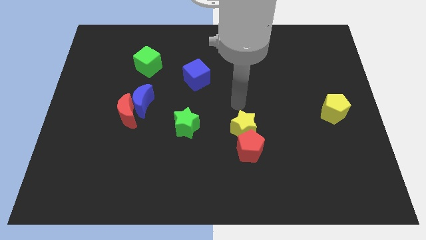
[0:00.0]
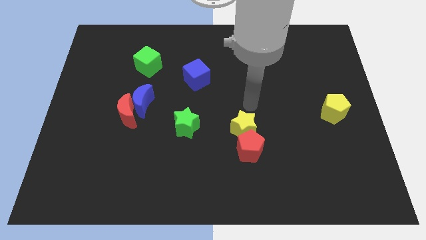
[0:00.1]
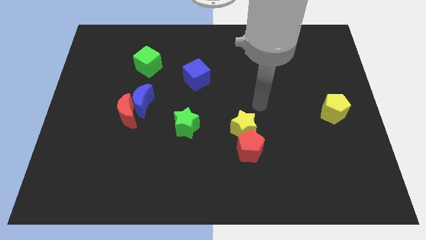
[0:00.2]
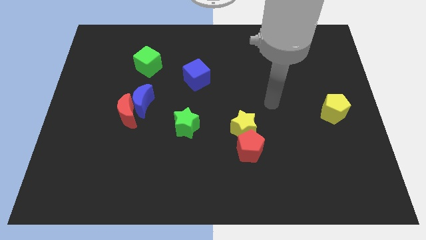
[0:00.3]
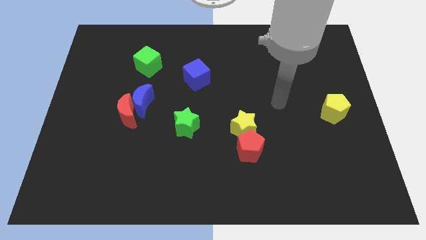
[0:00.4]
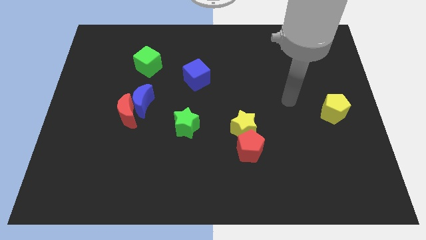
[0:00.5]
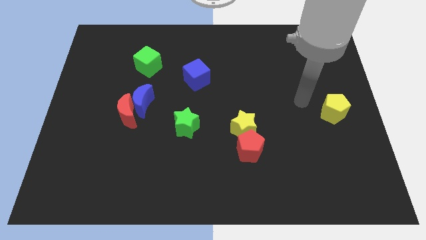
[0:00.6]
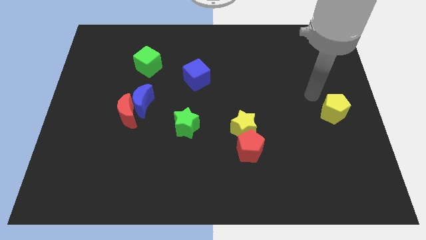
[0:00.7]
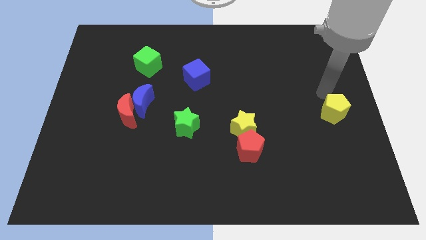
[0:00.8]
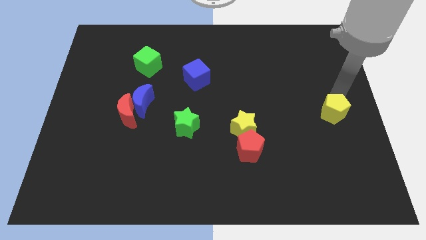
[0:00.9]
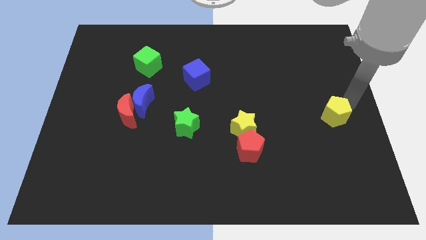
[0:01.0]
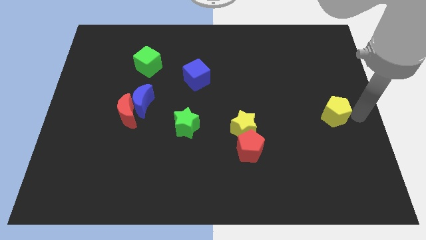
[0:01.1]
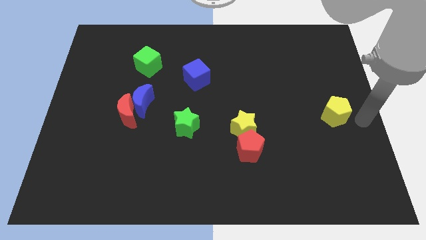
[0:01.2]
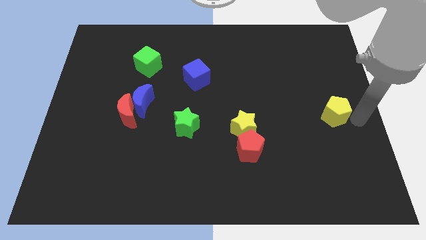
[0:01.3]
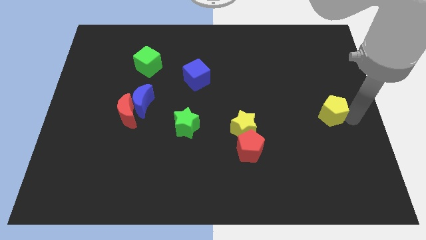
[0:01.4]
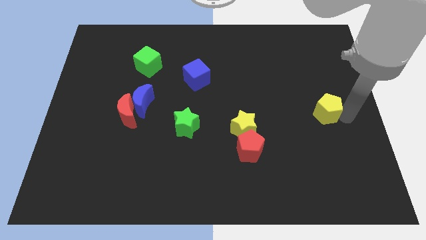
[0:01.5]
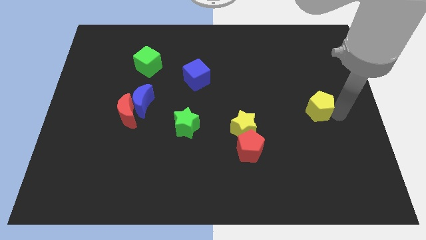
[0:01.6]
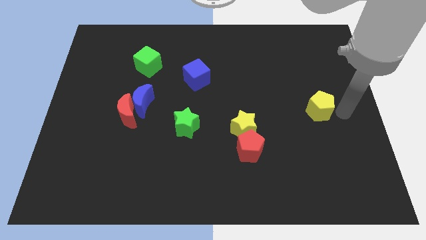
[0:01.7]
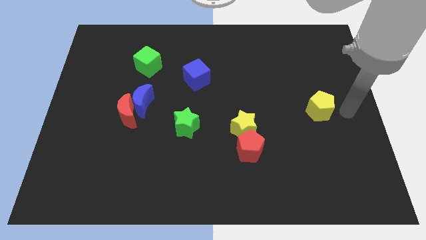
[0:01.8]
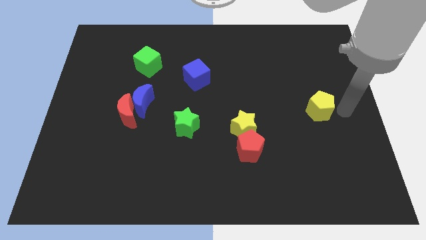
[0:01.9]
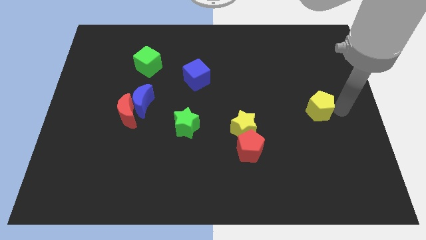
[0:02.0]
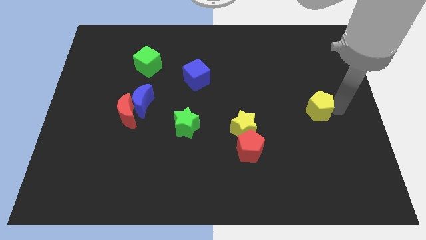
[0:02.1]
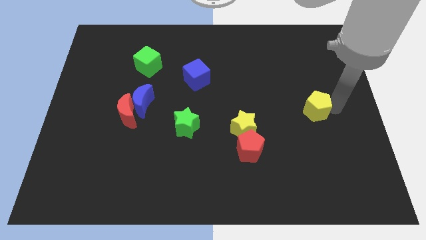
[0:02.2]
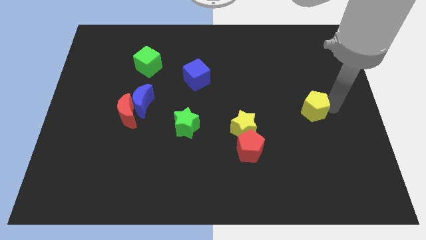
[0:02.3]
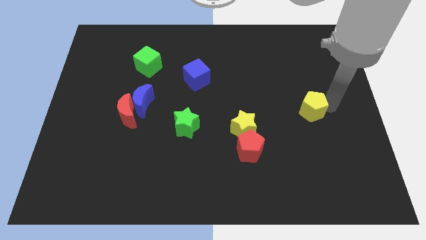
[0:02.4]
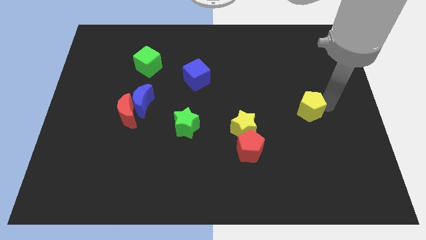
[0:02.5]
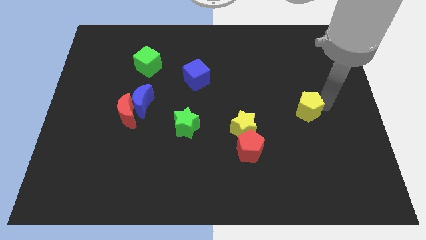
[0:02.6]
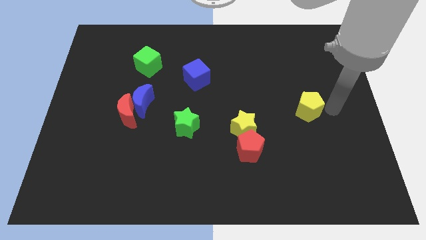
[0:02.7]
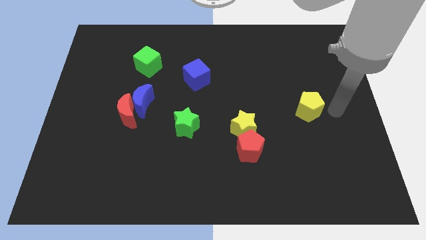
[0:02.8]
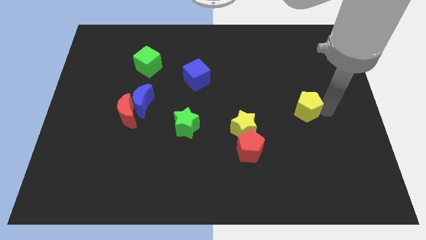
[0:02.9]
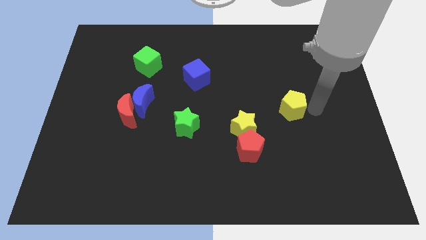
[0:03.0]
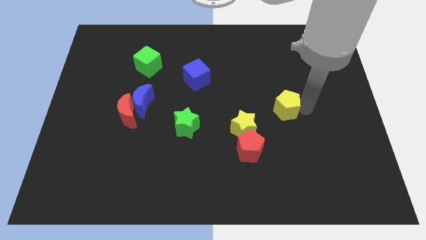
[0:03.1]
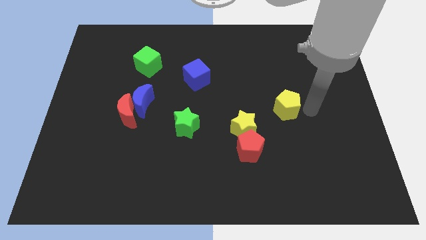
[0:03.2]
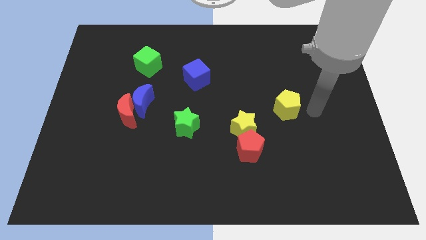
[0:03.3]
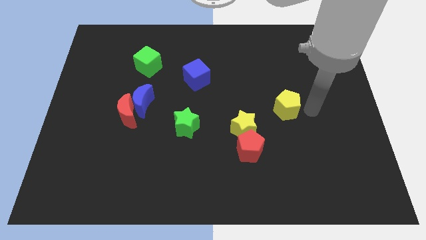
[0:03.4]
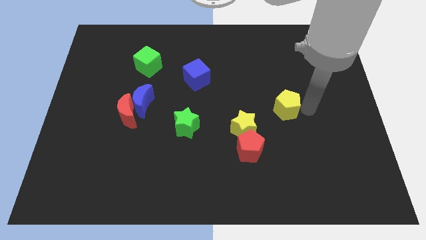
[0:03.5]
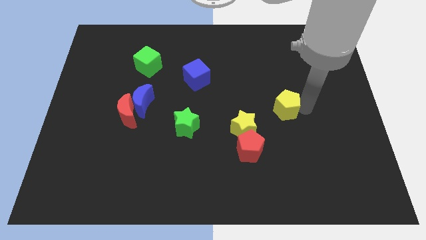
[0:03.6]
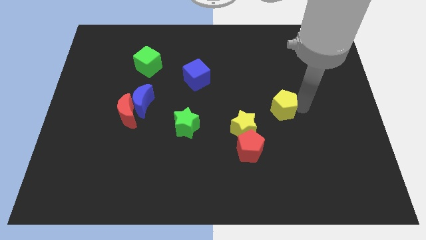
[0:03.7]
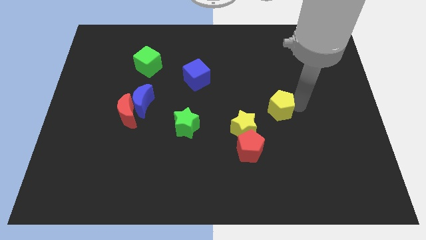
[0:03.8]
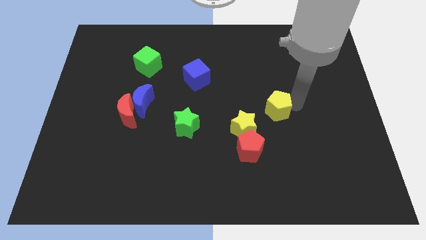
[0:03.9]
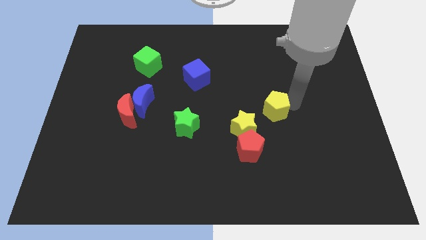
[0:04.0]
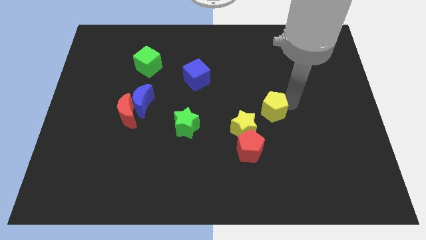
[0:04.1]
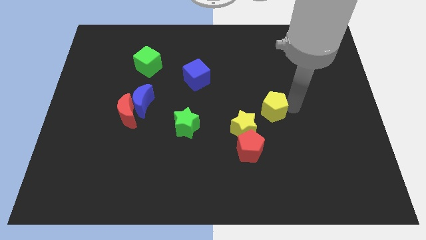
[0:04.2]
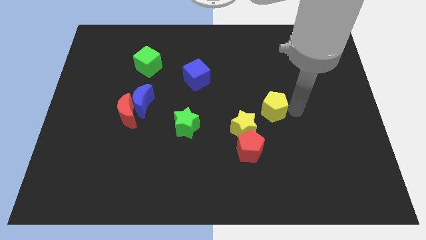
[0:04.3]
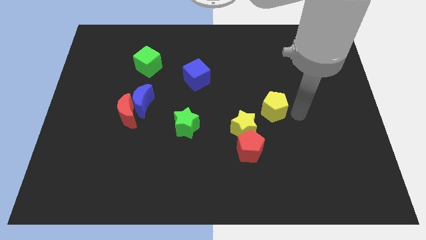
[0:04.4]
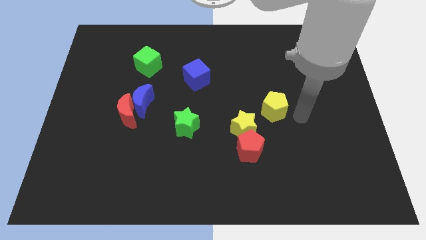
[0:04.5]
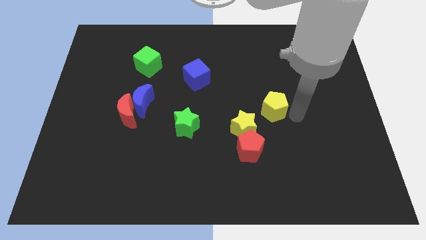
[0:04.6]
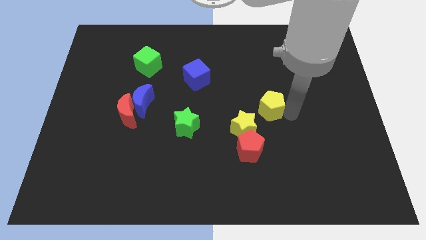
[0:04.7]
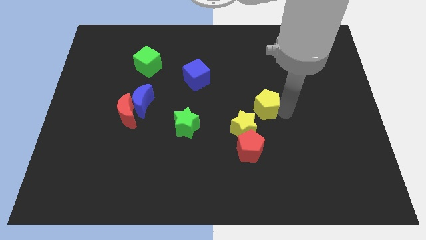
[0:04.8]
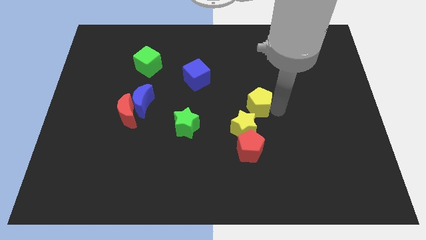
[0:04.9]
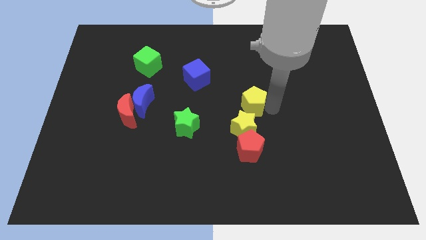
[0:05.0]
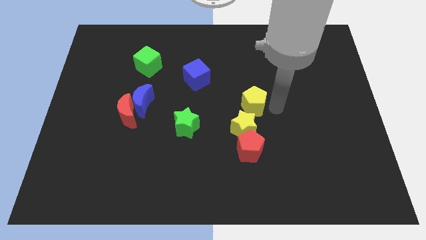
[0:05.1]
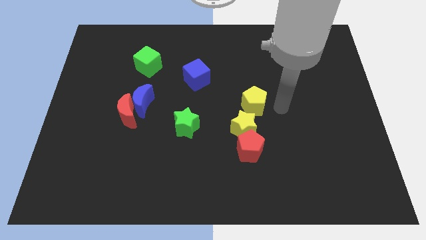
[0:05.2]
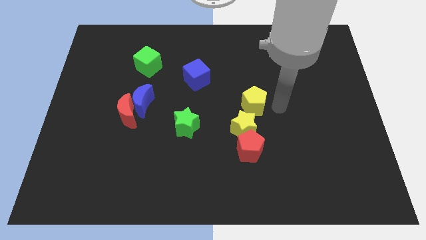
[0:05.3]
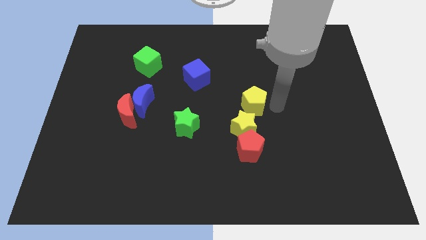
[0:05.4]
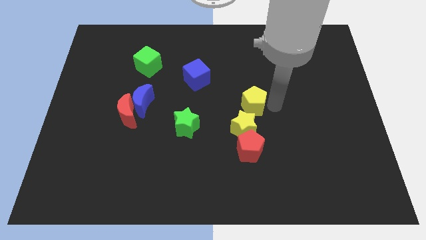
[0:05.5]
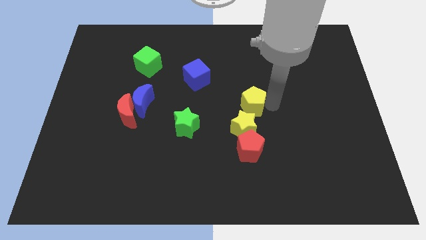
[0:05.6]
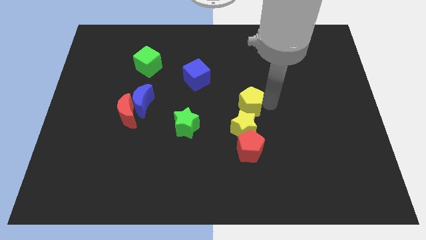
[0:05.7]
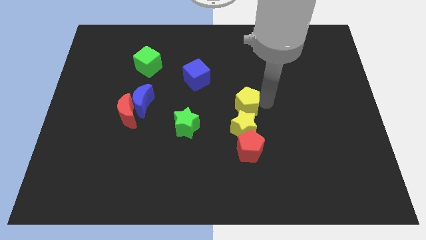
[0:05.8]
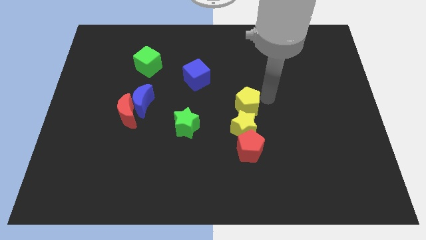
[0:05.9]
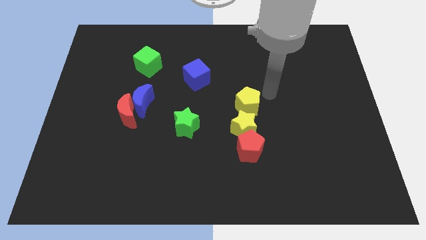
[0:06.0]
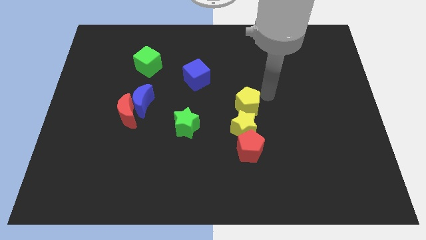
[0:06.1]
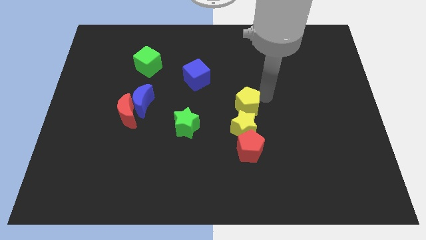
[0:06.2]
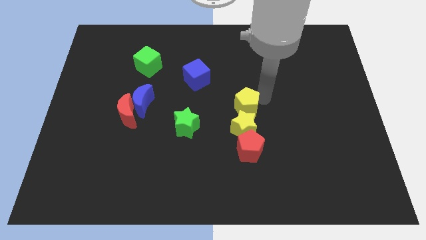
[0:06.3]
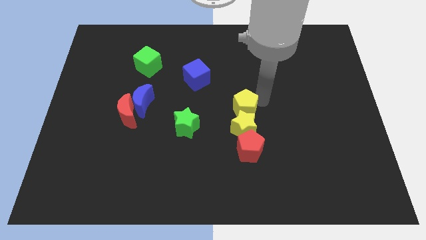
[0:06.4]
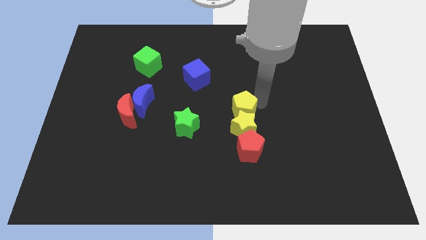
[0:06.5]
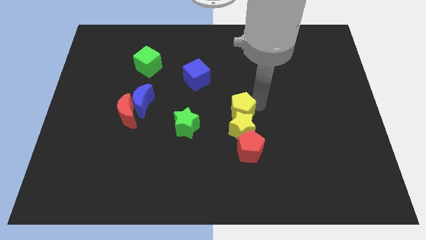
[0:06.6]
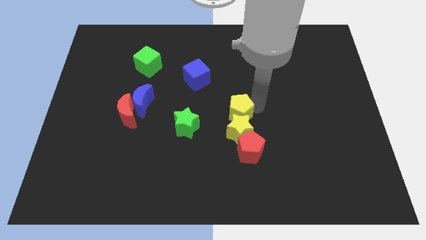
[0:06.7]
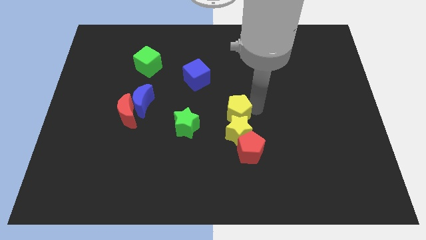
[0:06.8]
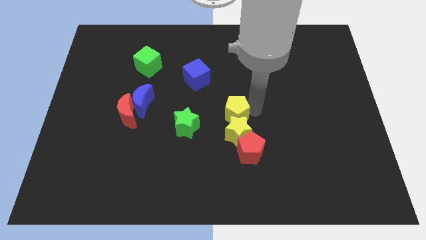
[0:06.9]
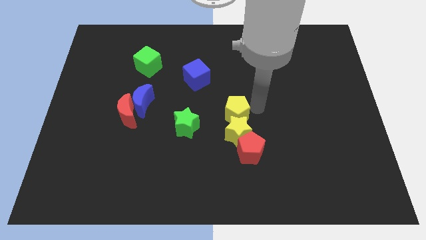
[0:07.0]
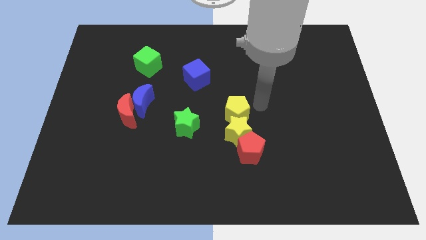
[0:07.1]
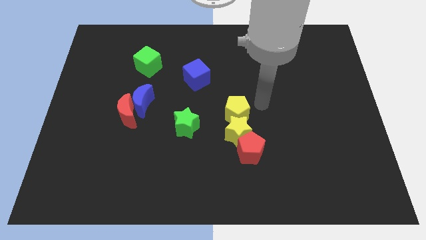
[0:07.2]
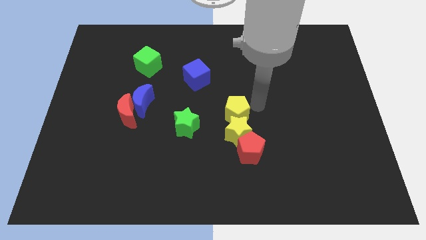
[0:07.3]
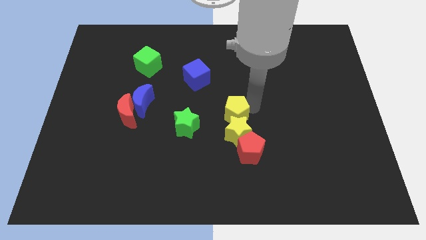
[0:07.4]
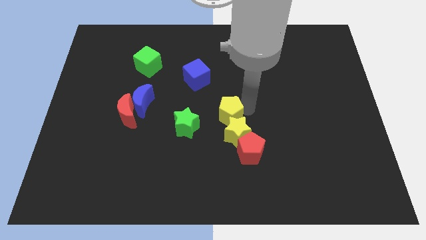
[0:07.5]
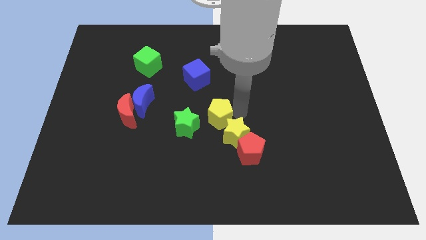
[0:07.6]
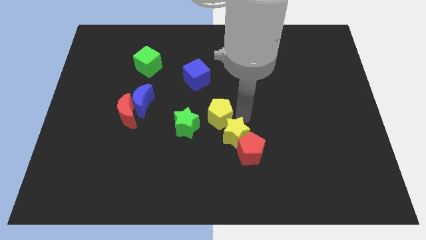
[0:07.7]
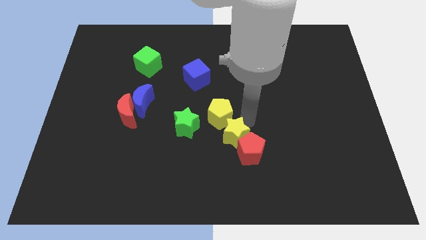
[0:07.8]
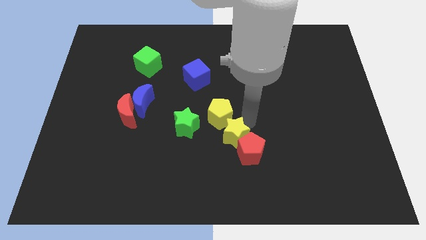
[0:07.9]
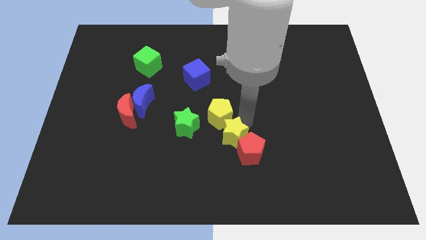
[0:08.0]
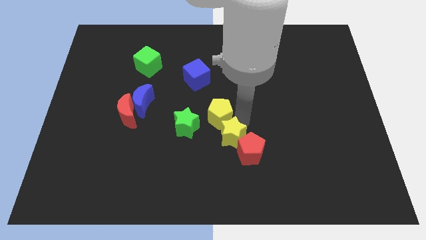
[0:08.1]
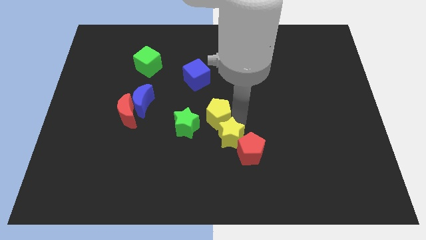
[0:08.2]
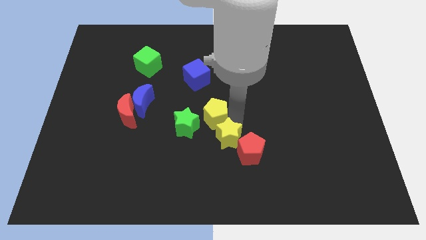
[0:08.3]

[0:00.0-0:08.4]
move the yellow pentagon to the bottom side of the blue cube

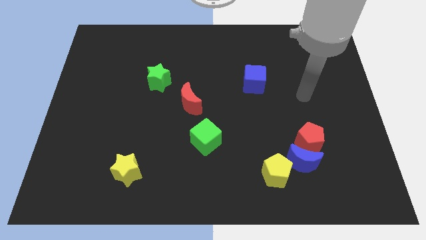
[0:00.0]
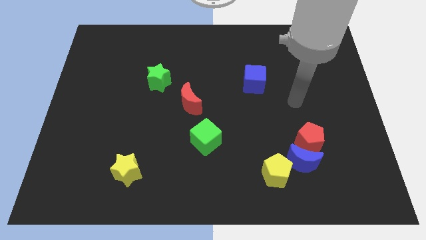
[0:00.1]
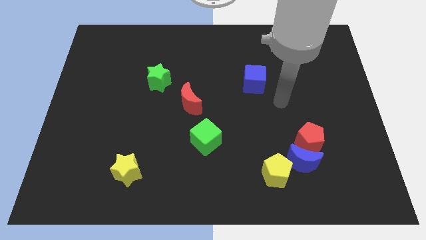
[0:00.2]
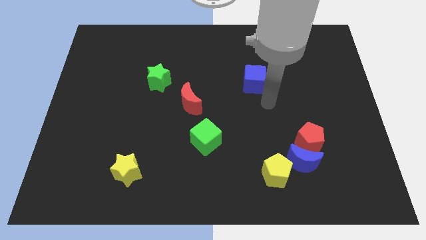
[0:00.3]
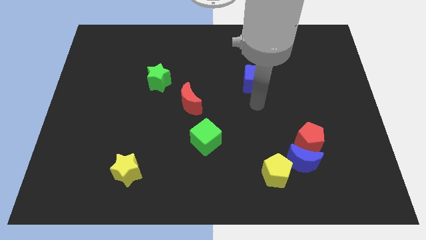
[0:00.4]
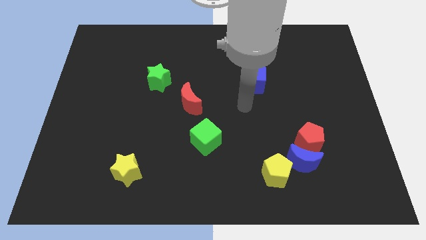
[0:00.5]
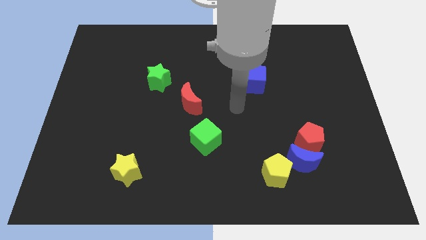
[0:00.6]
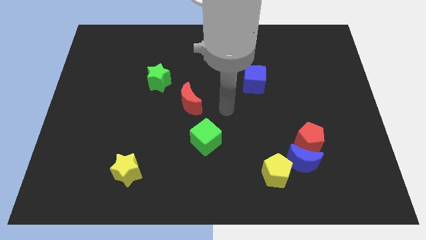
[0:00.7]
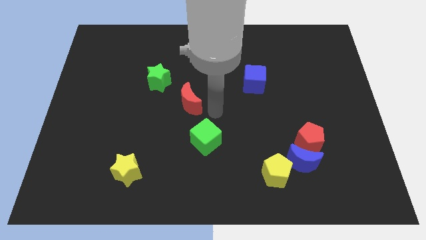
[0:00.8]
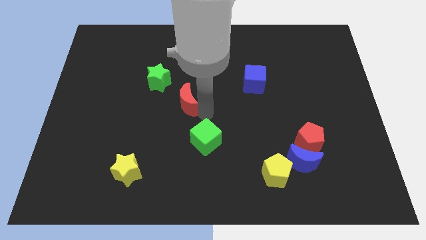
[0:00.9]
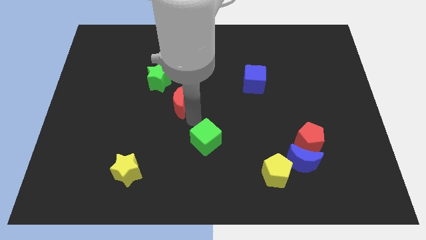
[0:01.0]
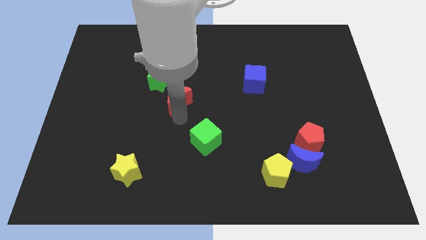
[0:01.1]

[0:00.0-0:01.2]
put the green star to the top side of the red moon
